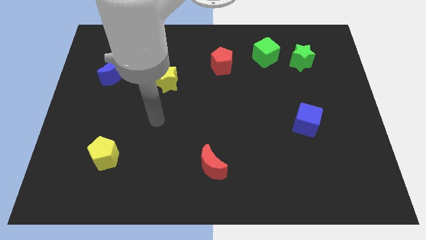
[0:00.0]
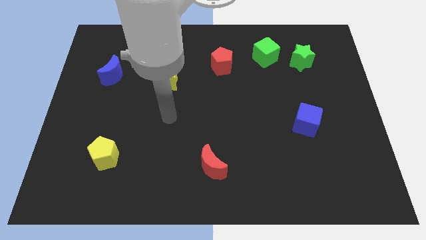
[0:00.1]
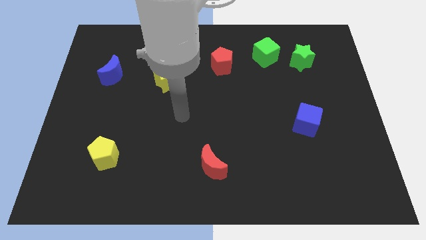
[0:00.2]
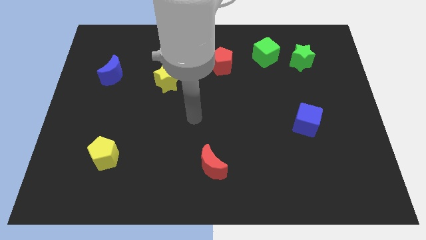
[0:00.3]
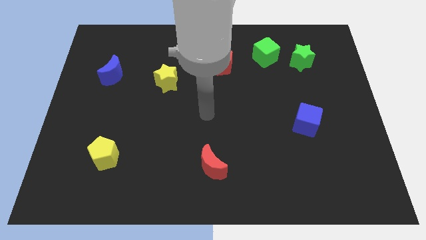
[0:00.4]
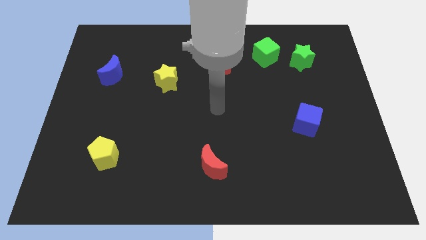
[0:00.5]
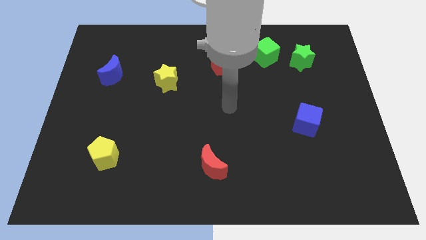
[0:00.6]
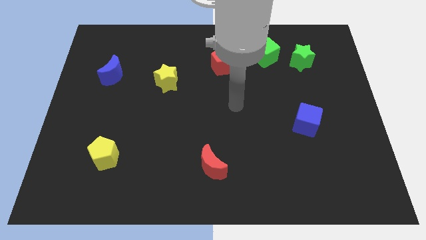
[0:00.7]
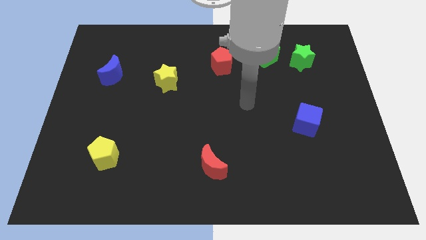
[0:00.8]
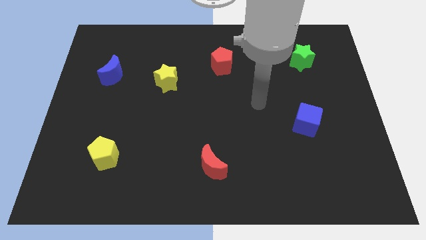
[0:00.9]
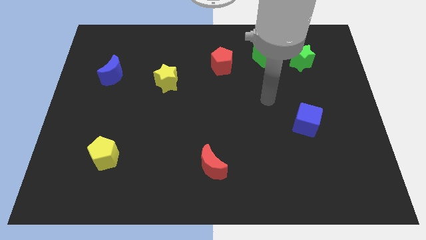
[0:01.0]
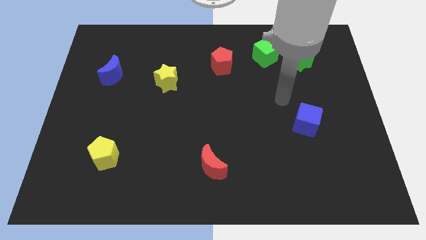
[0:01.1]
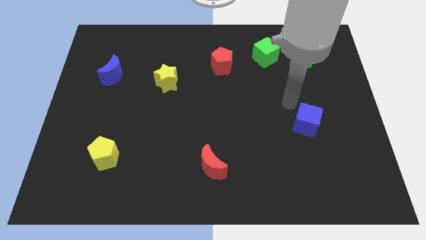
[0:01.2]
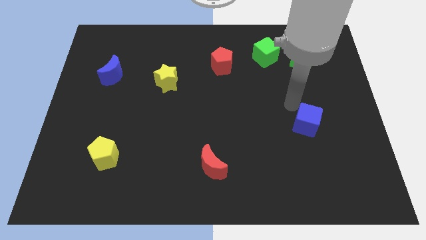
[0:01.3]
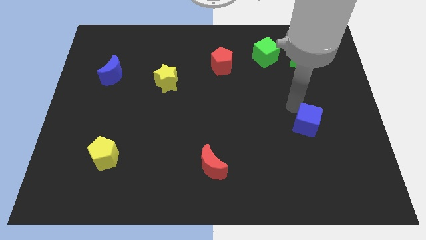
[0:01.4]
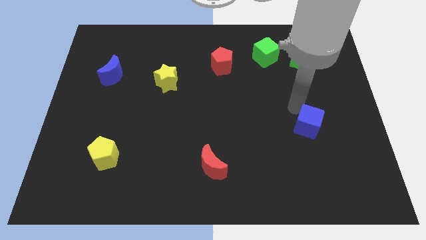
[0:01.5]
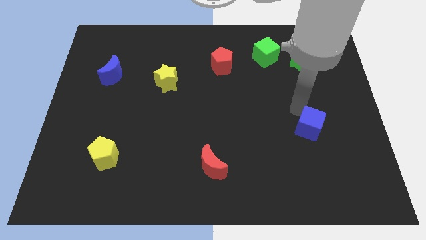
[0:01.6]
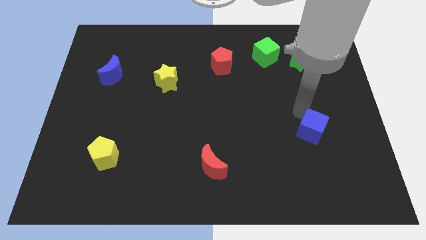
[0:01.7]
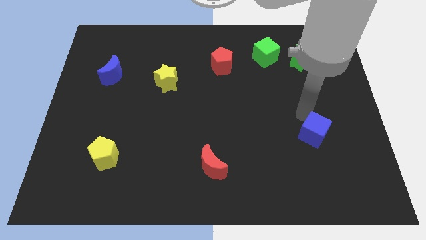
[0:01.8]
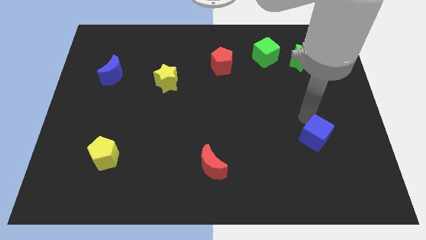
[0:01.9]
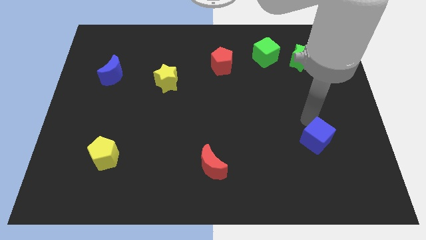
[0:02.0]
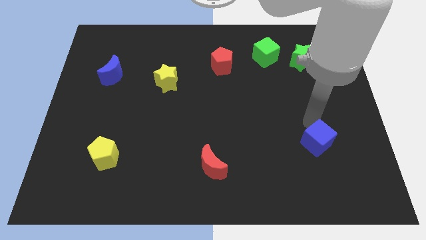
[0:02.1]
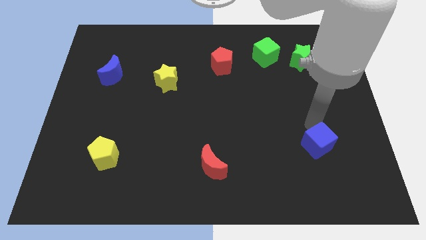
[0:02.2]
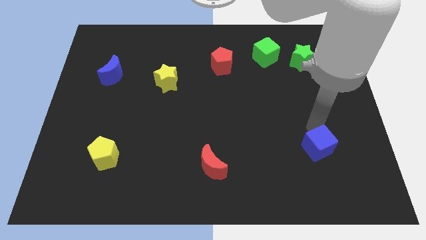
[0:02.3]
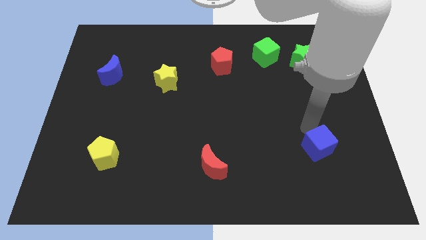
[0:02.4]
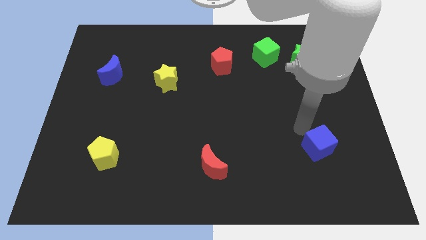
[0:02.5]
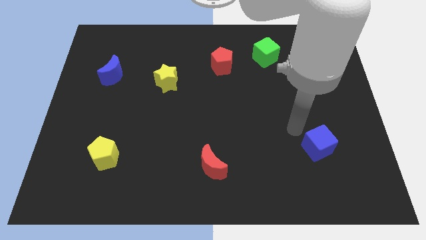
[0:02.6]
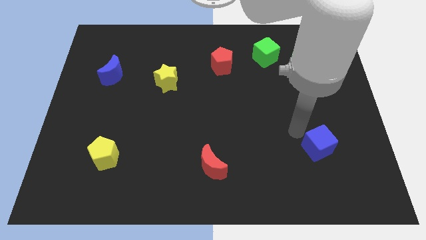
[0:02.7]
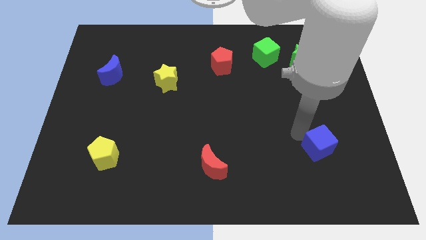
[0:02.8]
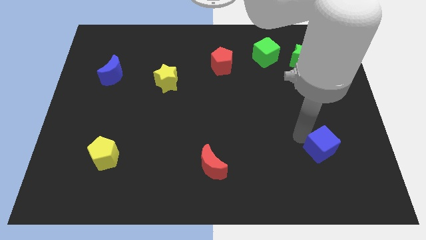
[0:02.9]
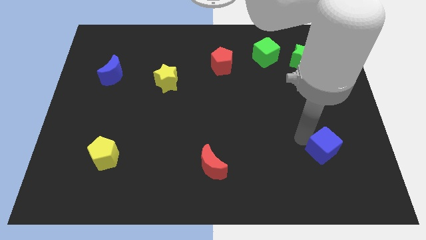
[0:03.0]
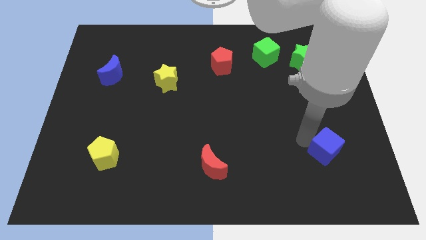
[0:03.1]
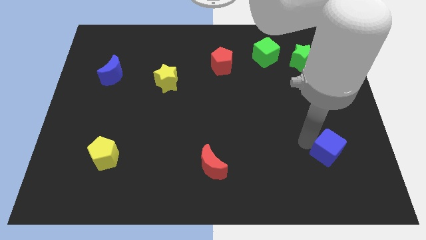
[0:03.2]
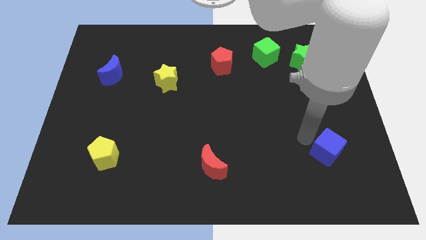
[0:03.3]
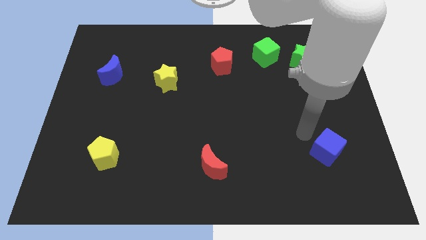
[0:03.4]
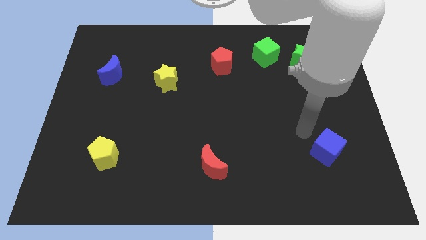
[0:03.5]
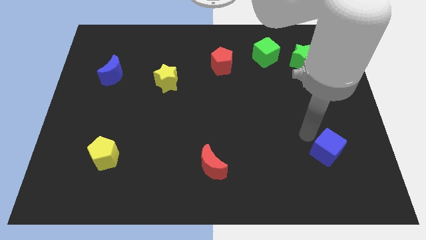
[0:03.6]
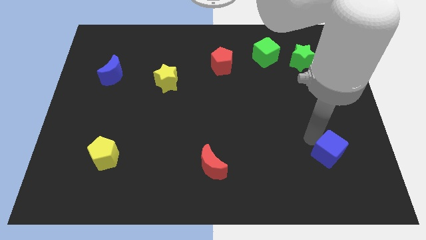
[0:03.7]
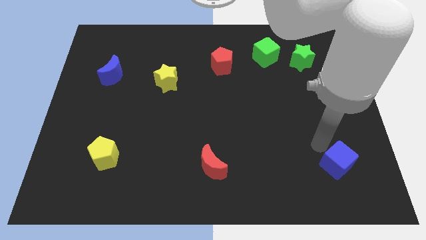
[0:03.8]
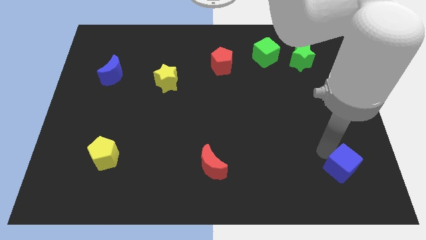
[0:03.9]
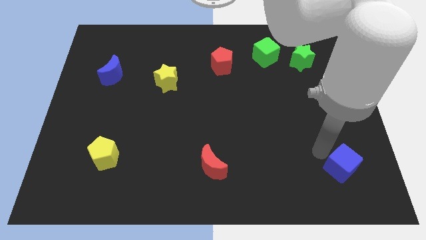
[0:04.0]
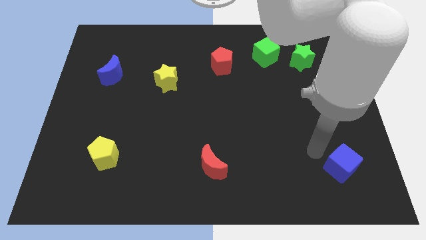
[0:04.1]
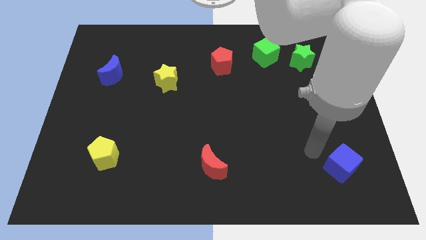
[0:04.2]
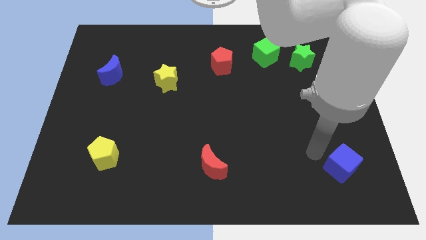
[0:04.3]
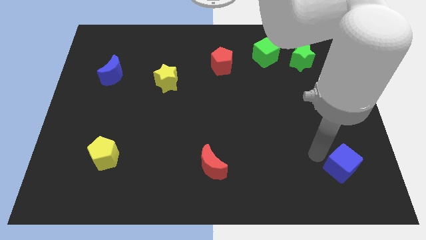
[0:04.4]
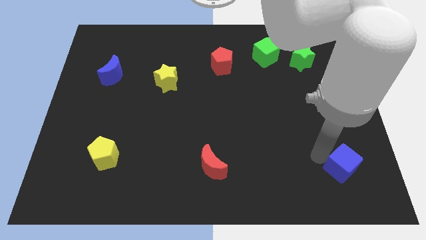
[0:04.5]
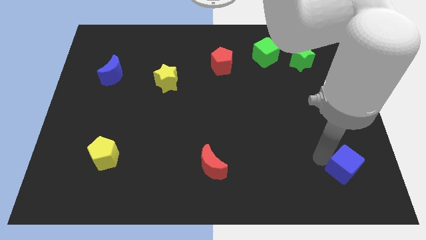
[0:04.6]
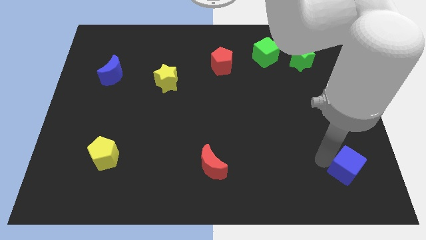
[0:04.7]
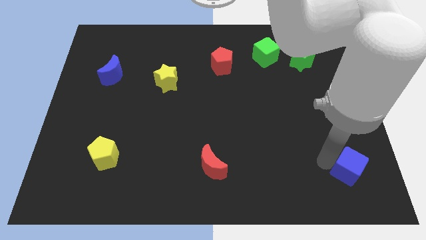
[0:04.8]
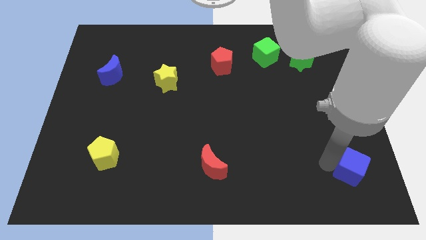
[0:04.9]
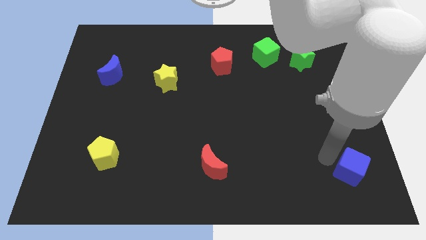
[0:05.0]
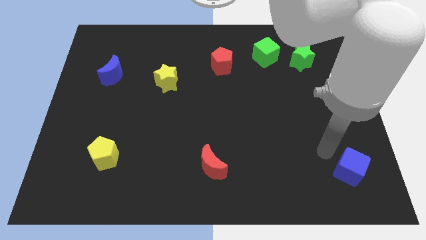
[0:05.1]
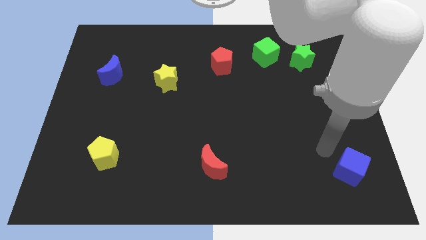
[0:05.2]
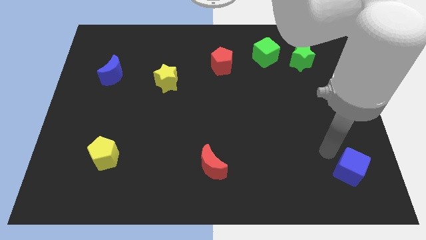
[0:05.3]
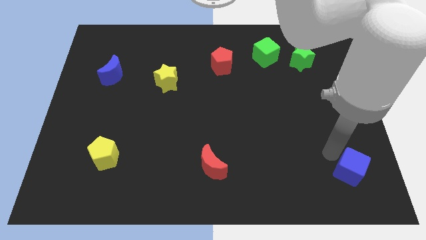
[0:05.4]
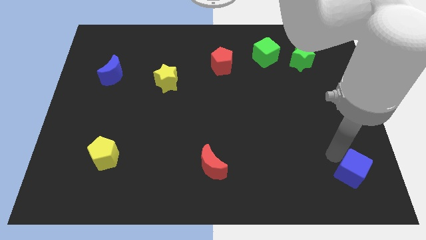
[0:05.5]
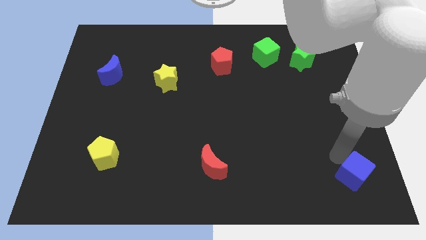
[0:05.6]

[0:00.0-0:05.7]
slide the blue cube to the lower right corner

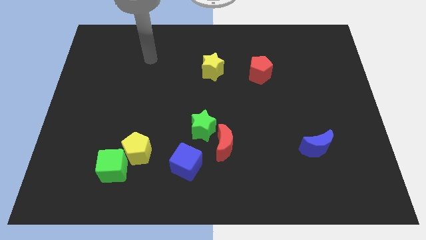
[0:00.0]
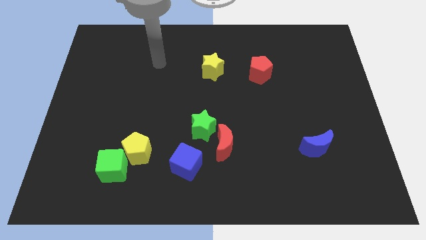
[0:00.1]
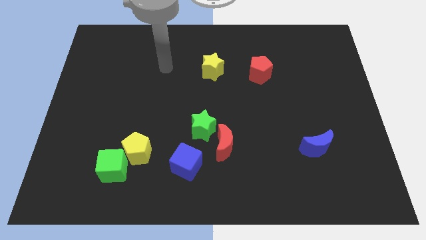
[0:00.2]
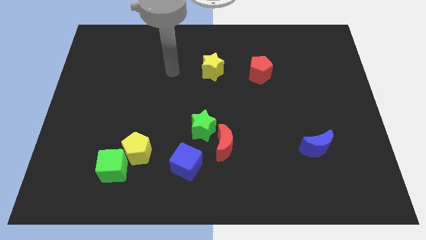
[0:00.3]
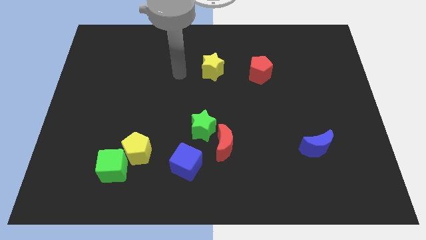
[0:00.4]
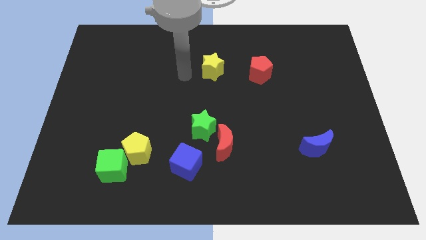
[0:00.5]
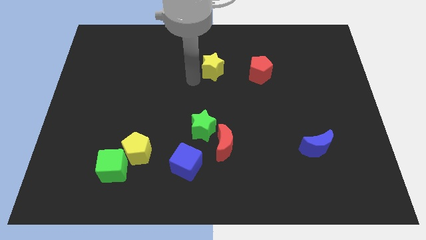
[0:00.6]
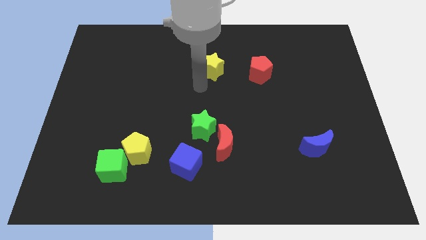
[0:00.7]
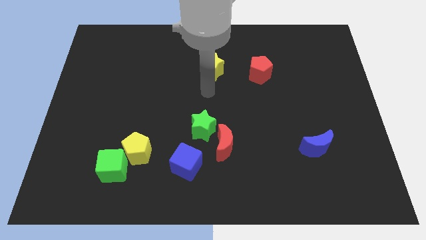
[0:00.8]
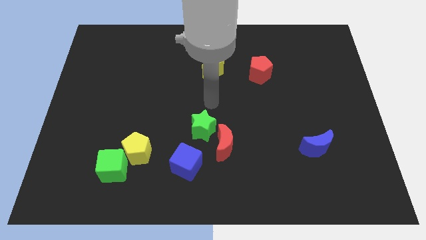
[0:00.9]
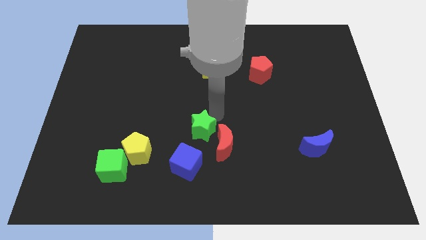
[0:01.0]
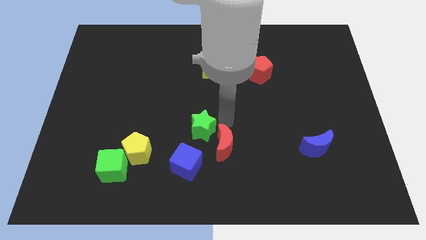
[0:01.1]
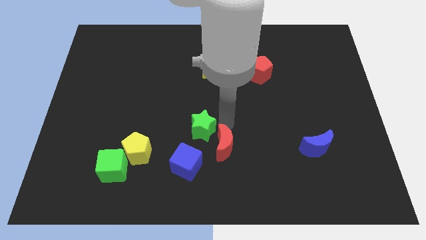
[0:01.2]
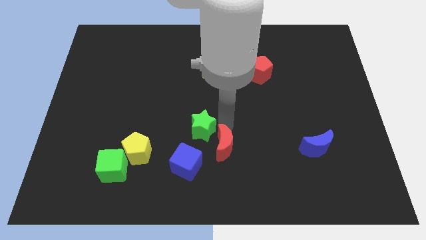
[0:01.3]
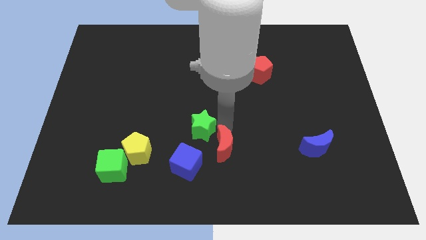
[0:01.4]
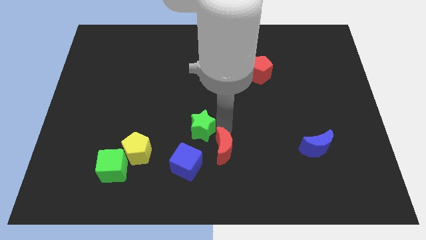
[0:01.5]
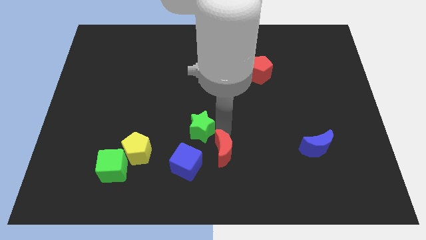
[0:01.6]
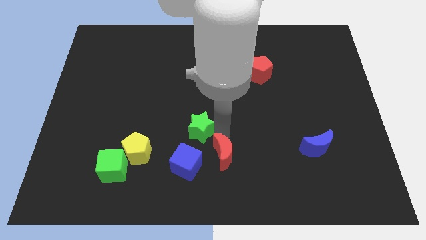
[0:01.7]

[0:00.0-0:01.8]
put the red moon to the bottom
